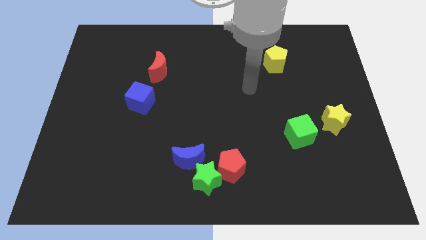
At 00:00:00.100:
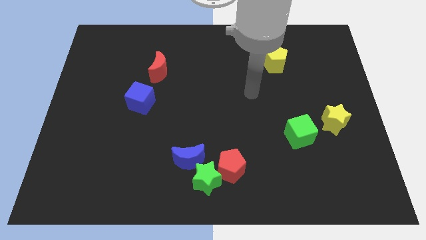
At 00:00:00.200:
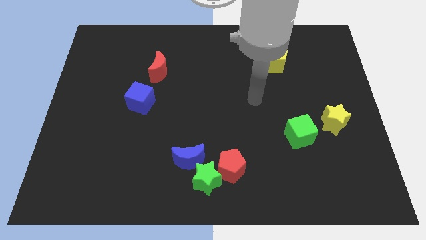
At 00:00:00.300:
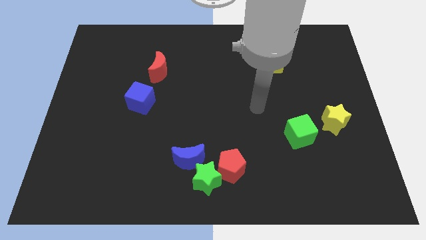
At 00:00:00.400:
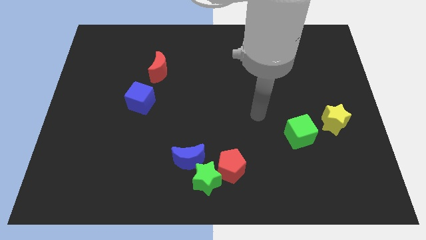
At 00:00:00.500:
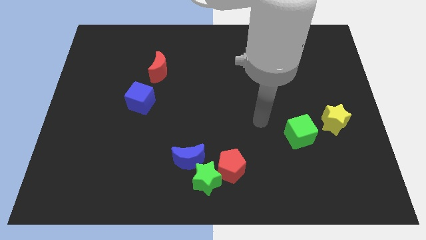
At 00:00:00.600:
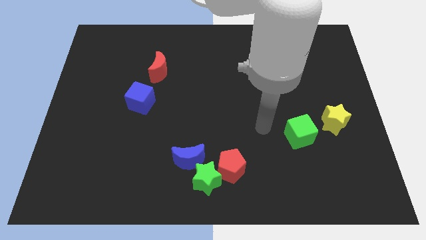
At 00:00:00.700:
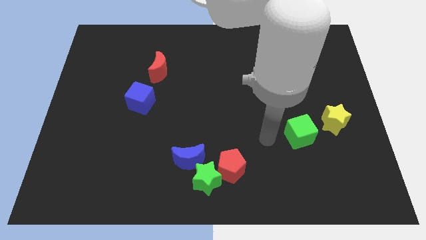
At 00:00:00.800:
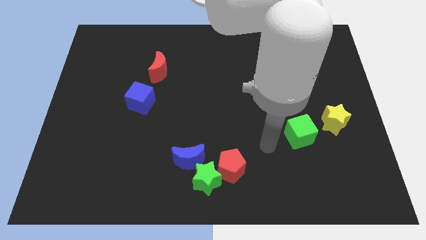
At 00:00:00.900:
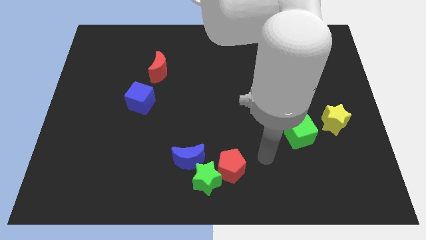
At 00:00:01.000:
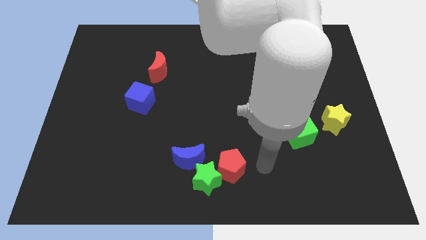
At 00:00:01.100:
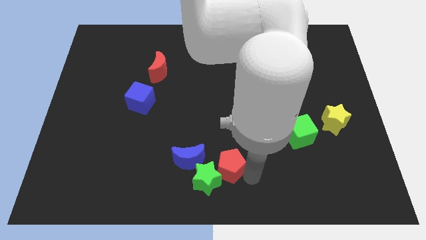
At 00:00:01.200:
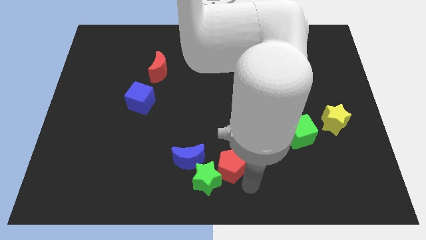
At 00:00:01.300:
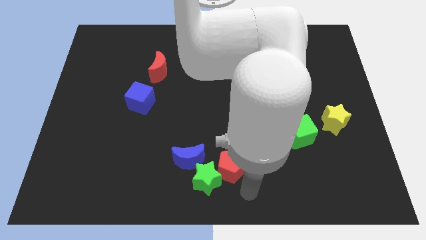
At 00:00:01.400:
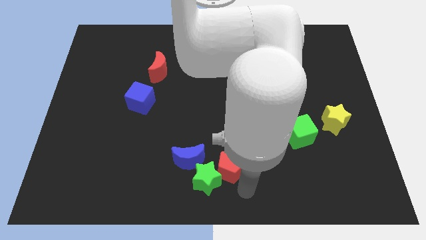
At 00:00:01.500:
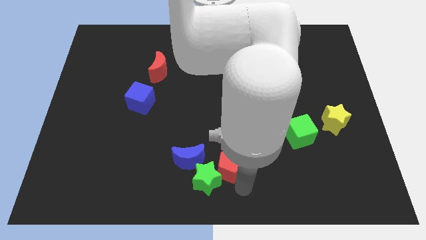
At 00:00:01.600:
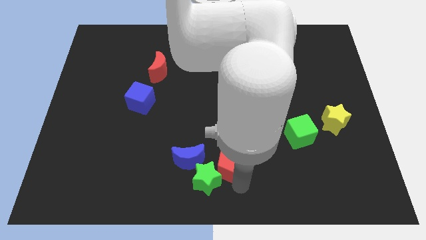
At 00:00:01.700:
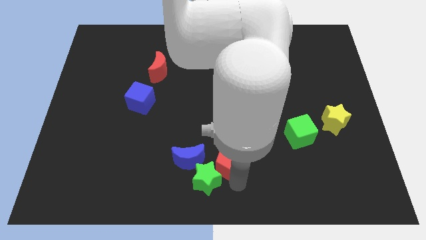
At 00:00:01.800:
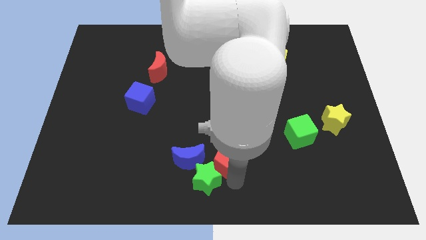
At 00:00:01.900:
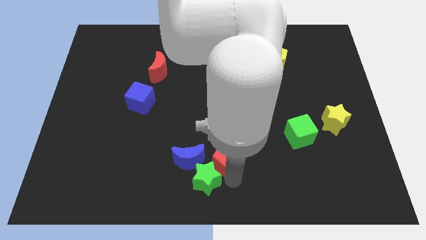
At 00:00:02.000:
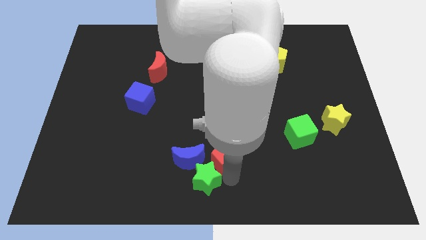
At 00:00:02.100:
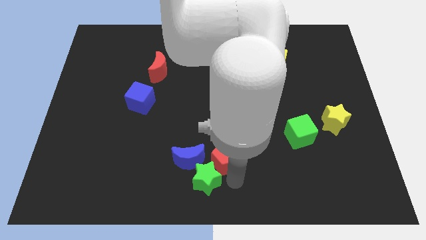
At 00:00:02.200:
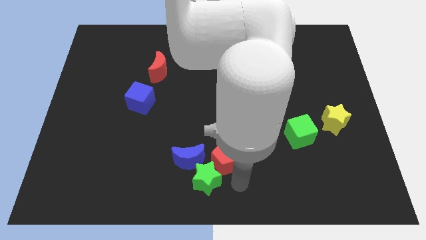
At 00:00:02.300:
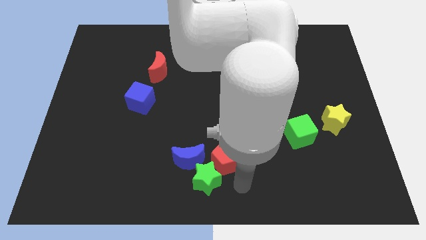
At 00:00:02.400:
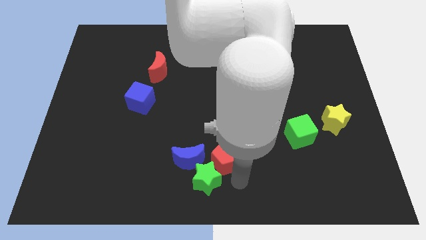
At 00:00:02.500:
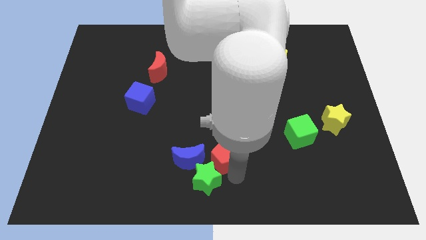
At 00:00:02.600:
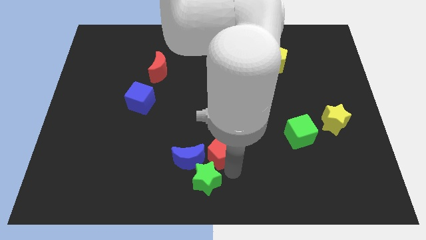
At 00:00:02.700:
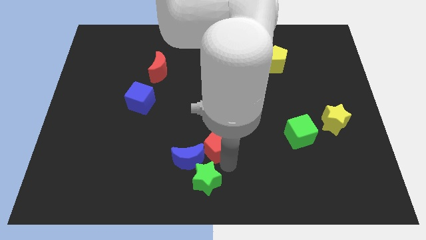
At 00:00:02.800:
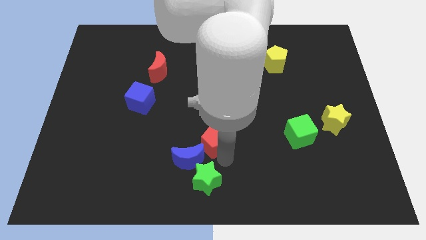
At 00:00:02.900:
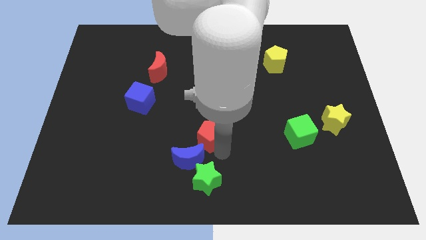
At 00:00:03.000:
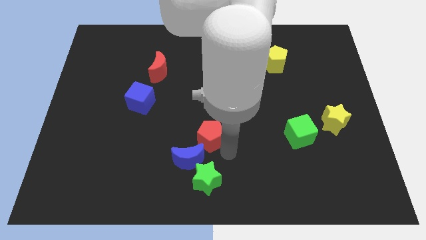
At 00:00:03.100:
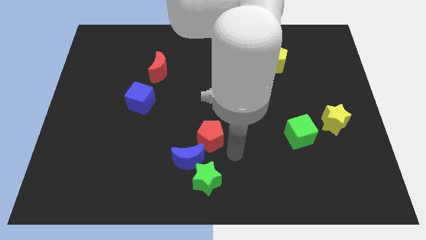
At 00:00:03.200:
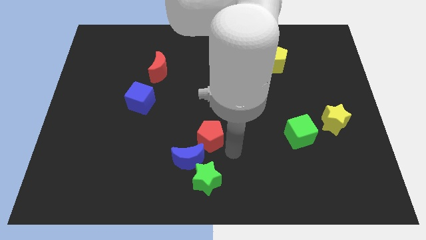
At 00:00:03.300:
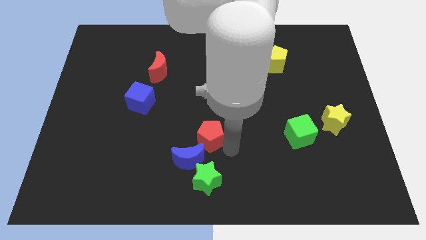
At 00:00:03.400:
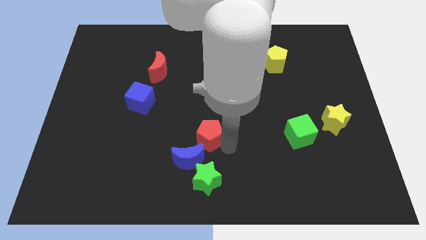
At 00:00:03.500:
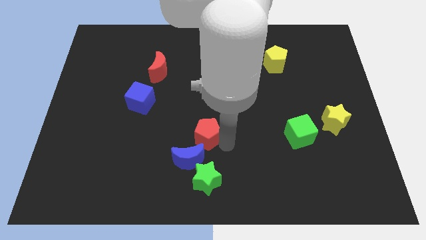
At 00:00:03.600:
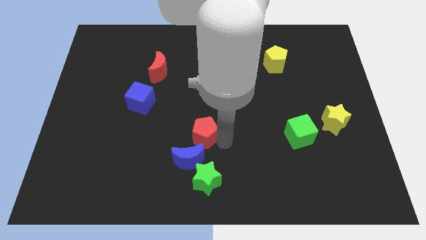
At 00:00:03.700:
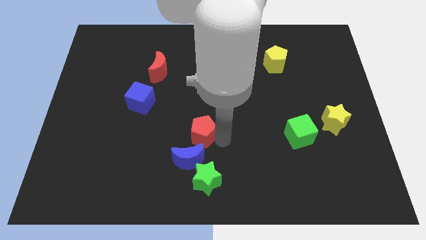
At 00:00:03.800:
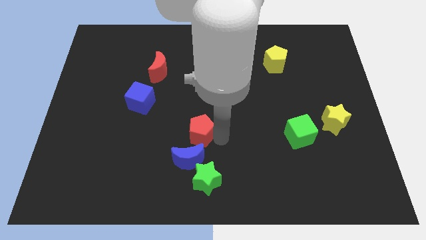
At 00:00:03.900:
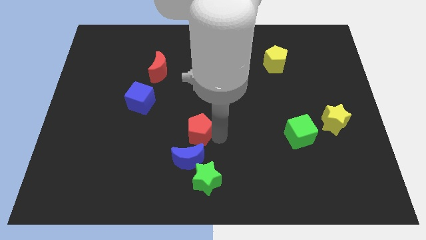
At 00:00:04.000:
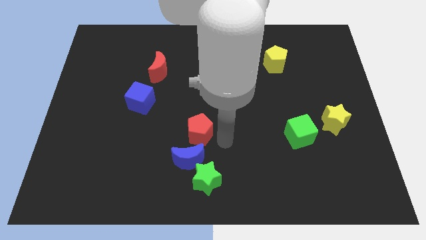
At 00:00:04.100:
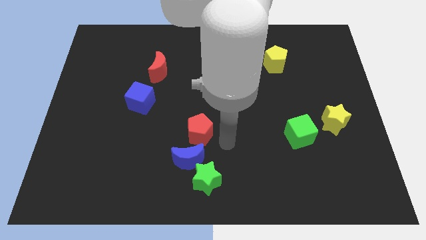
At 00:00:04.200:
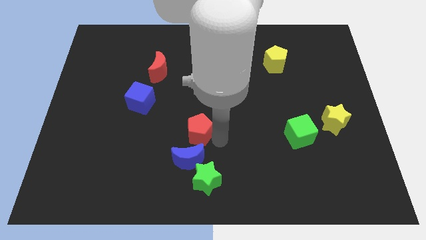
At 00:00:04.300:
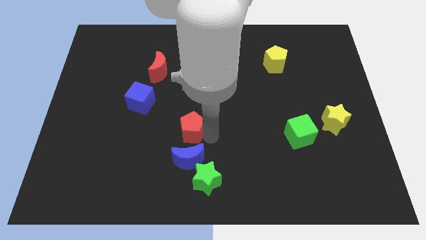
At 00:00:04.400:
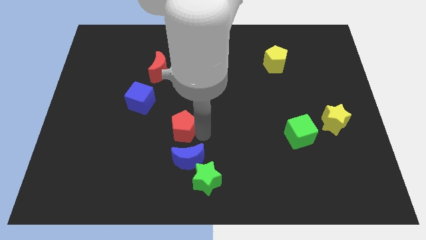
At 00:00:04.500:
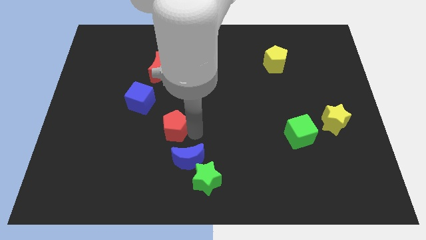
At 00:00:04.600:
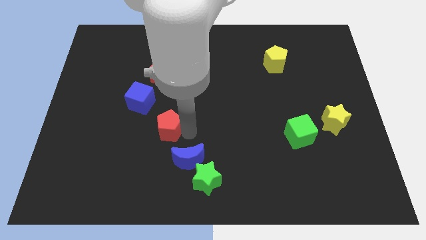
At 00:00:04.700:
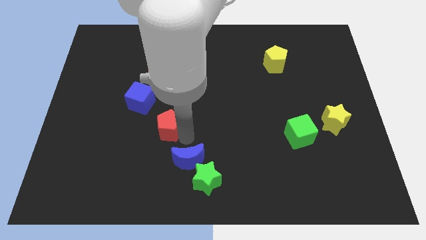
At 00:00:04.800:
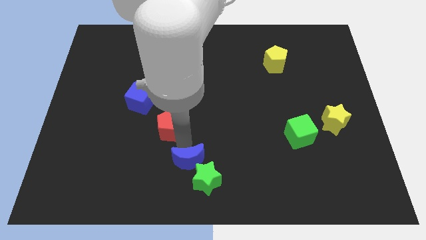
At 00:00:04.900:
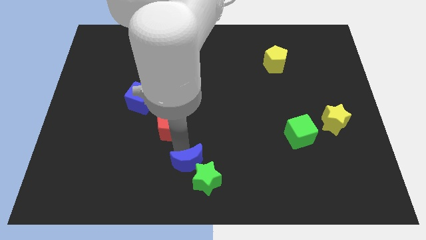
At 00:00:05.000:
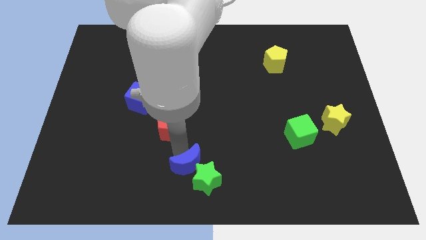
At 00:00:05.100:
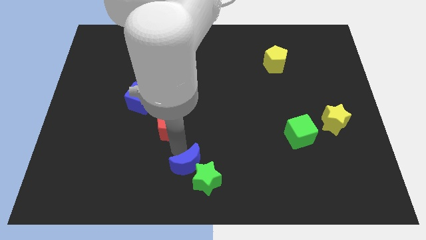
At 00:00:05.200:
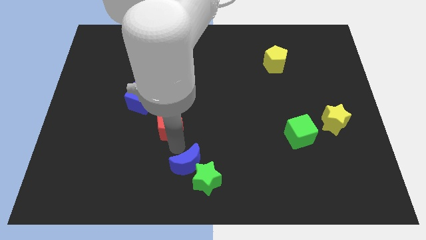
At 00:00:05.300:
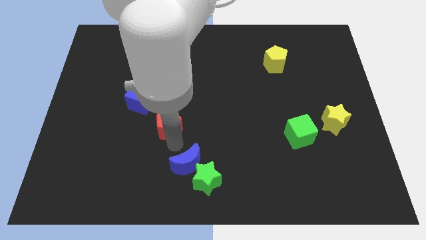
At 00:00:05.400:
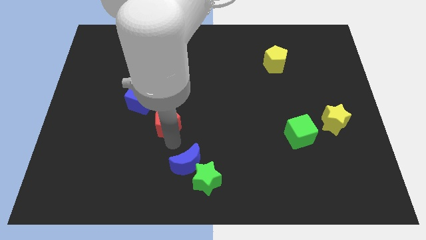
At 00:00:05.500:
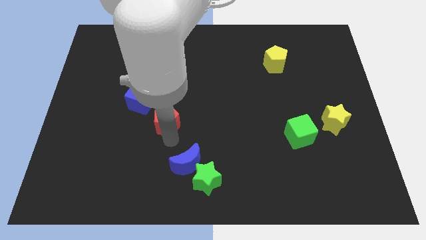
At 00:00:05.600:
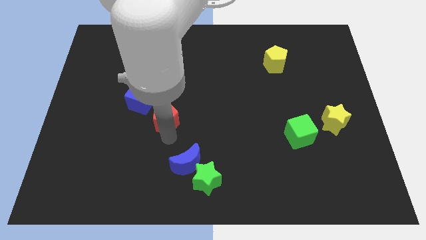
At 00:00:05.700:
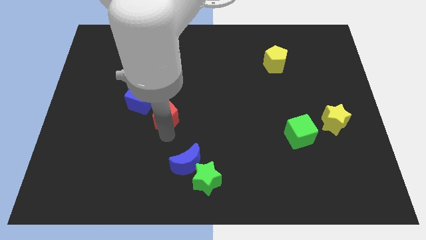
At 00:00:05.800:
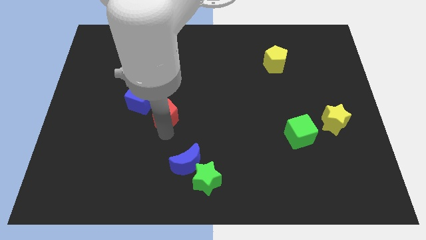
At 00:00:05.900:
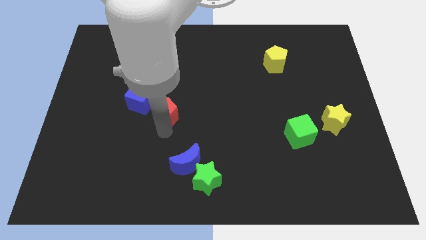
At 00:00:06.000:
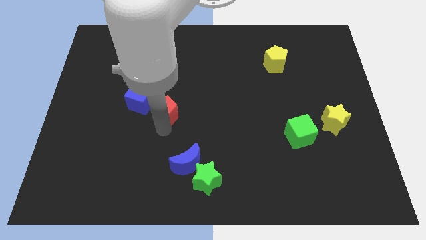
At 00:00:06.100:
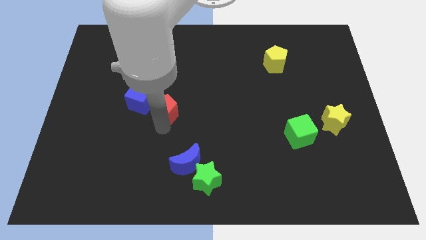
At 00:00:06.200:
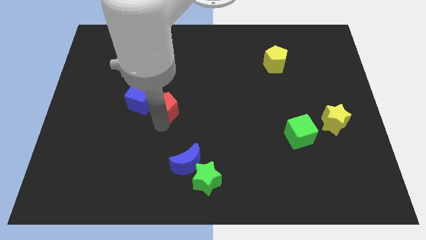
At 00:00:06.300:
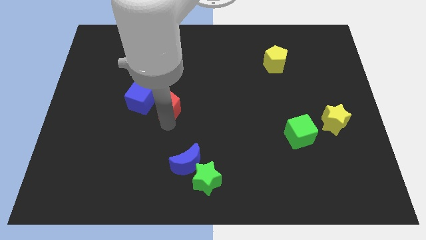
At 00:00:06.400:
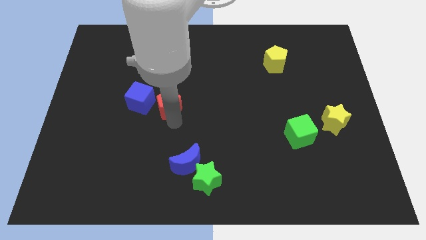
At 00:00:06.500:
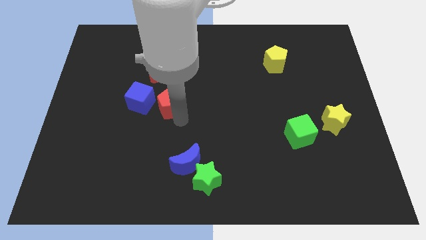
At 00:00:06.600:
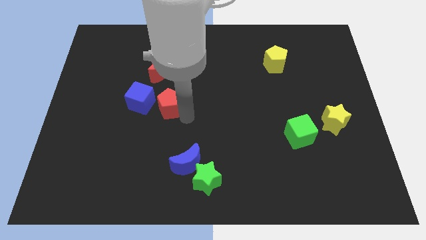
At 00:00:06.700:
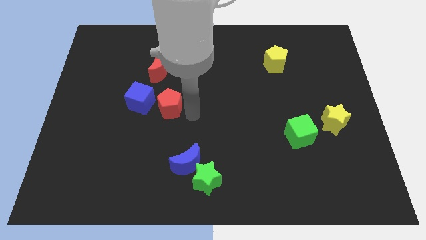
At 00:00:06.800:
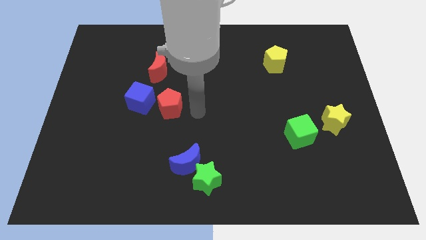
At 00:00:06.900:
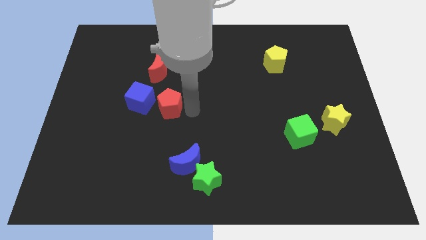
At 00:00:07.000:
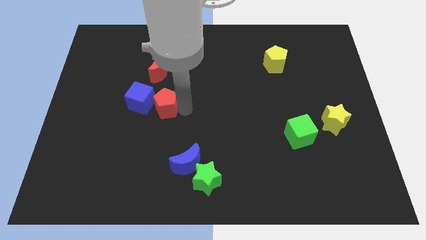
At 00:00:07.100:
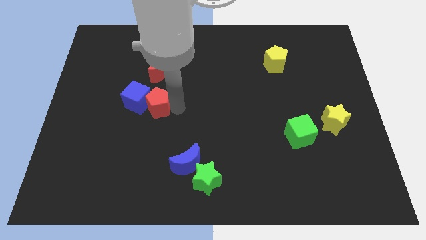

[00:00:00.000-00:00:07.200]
move the red pentagon to the blue cube
